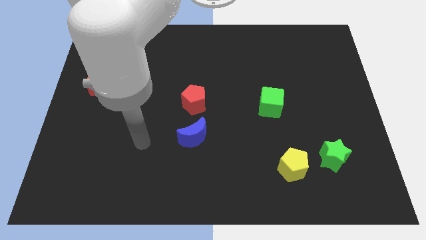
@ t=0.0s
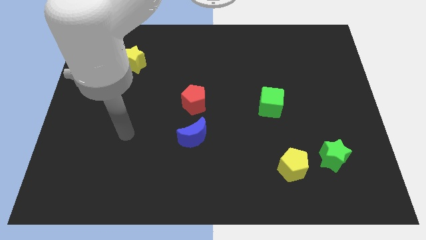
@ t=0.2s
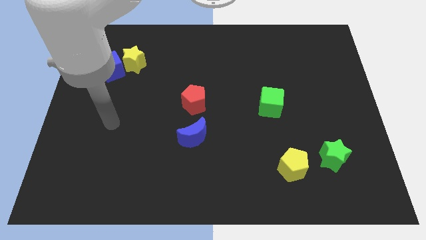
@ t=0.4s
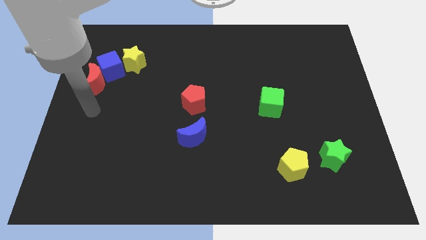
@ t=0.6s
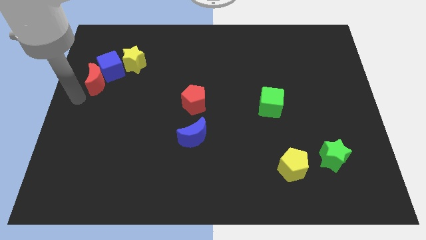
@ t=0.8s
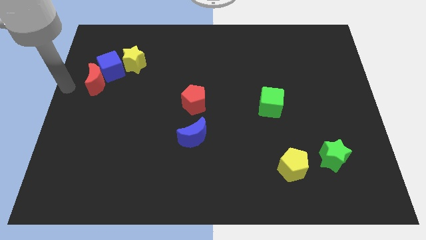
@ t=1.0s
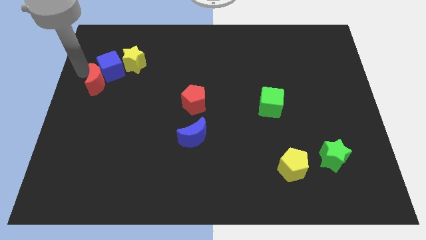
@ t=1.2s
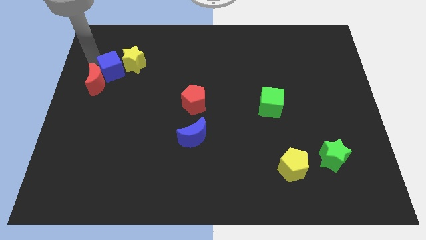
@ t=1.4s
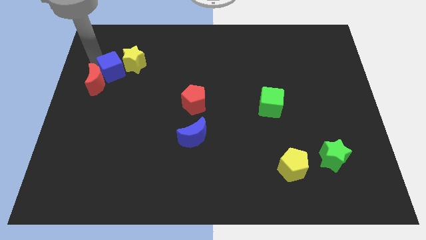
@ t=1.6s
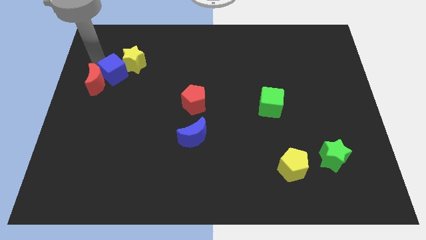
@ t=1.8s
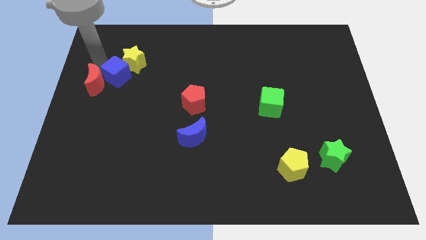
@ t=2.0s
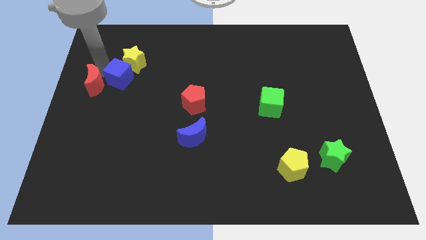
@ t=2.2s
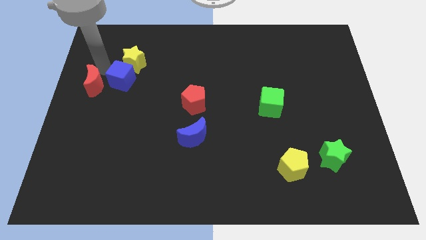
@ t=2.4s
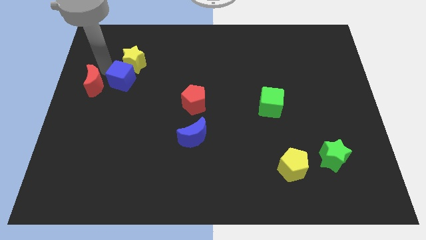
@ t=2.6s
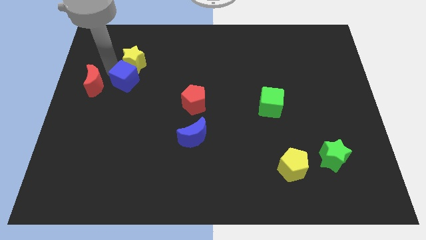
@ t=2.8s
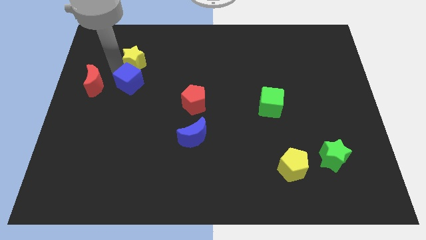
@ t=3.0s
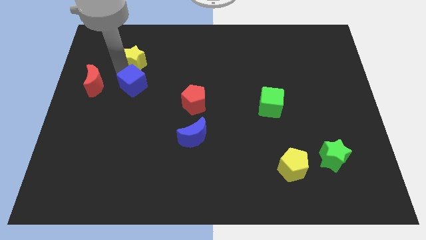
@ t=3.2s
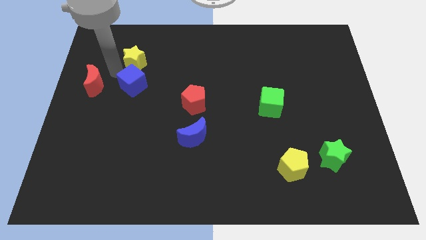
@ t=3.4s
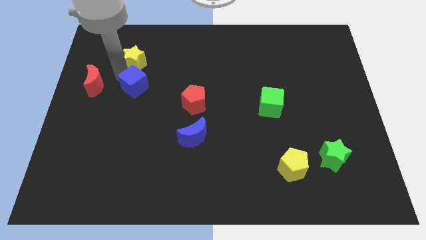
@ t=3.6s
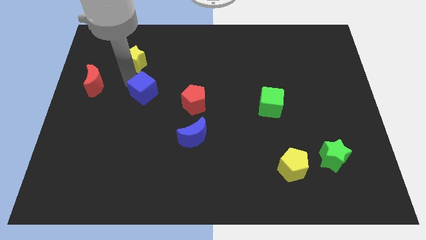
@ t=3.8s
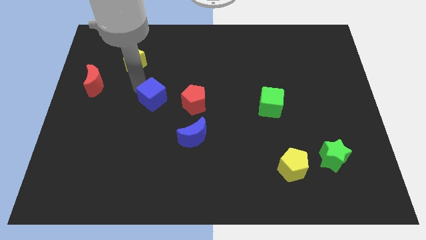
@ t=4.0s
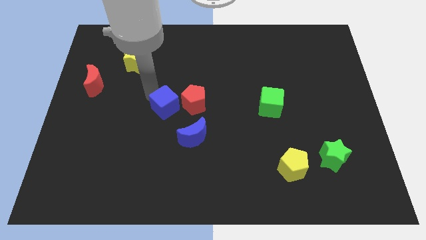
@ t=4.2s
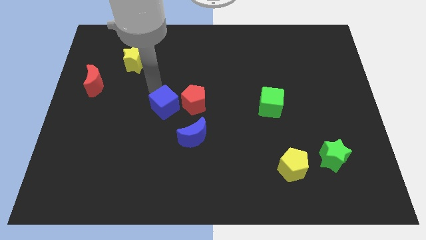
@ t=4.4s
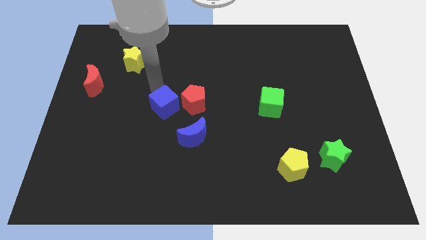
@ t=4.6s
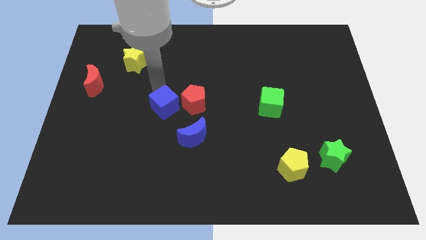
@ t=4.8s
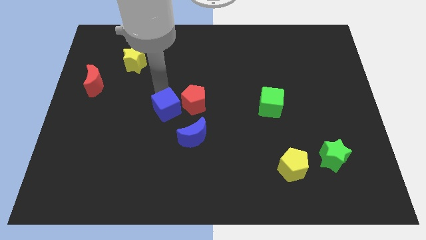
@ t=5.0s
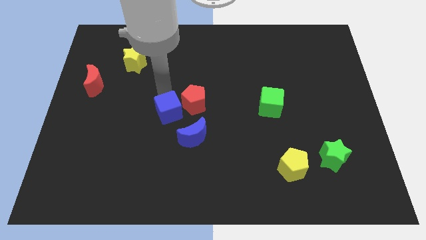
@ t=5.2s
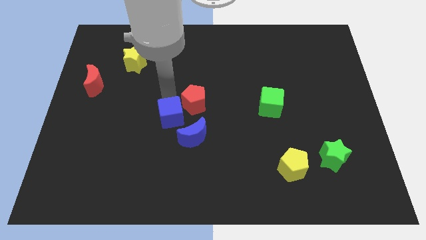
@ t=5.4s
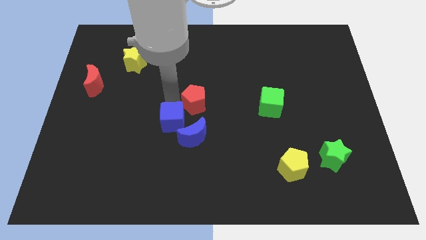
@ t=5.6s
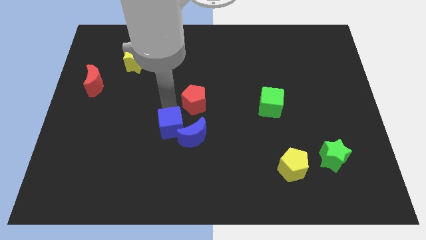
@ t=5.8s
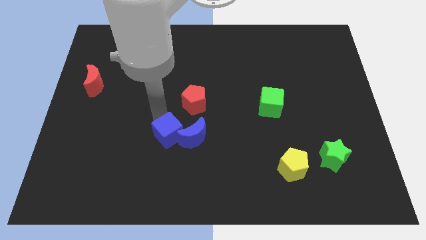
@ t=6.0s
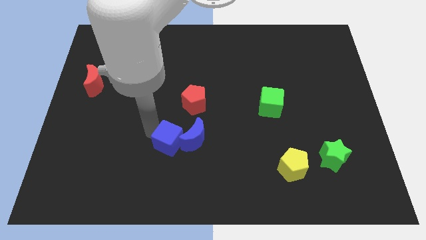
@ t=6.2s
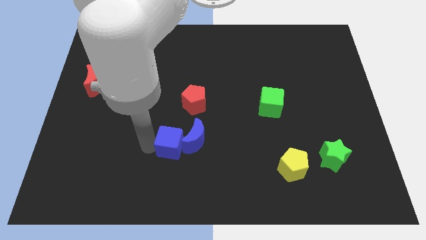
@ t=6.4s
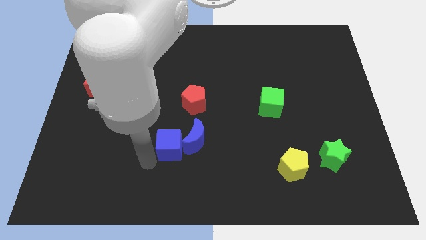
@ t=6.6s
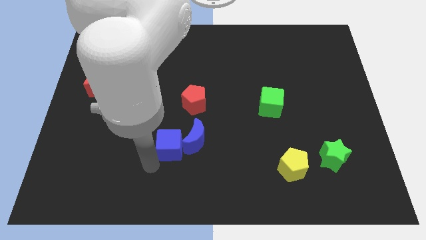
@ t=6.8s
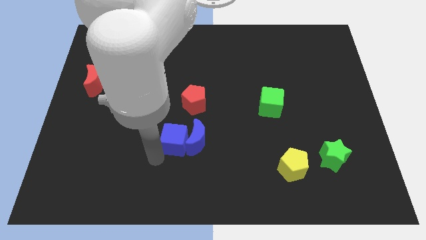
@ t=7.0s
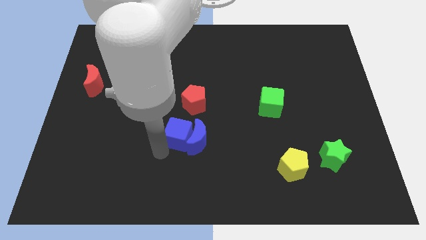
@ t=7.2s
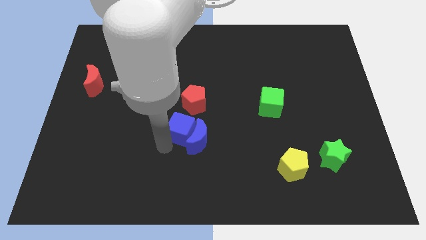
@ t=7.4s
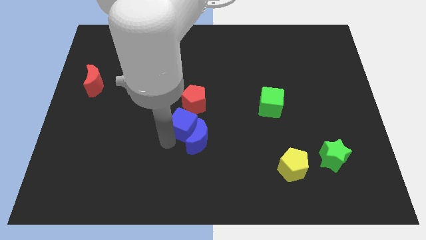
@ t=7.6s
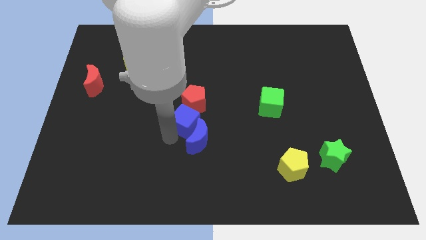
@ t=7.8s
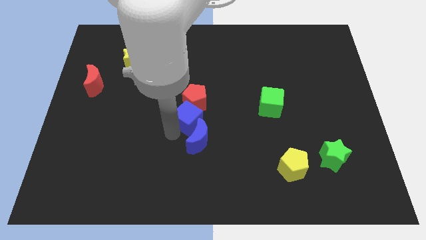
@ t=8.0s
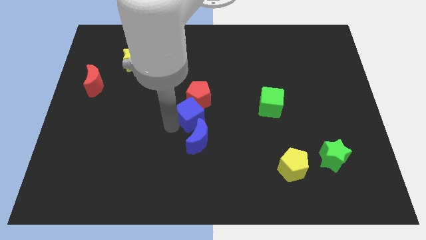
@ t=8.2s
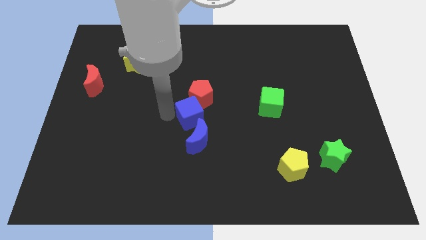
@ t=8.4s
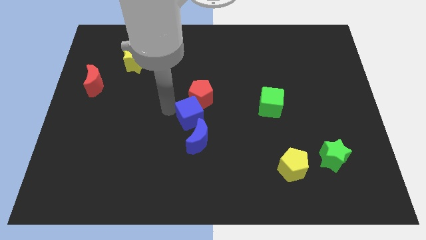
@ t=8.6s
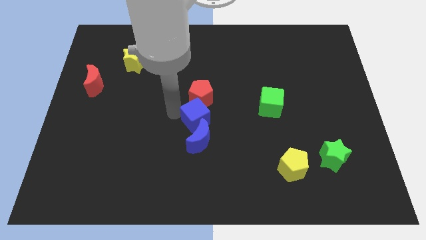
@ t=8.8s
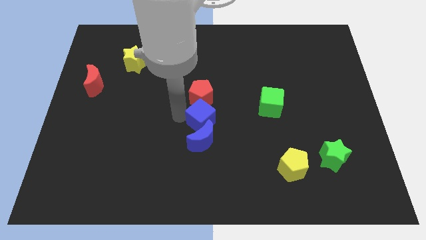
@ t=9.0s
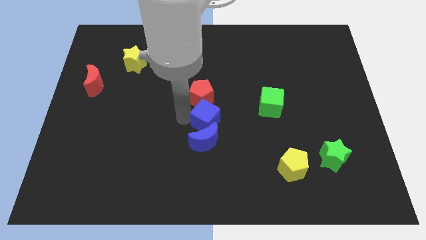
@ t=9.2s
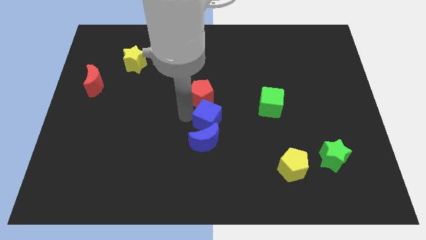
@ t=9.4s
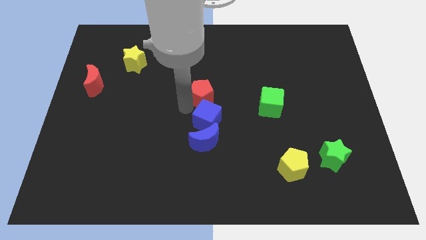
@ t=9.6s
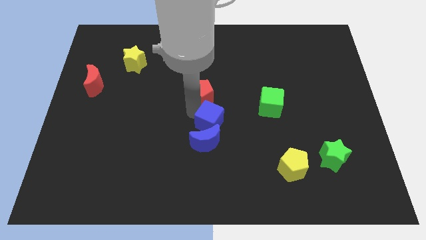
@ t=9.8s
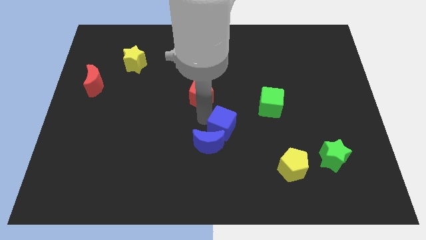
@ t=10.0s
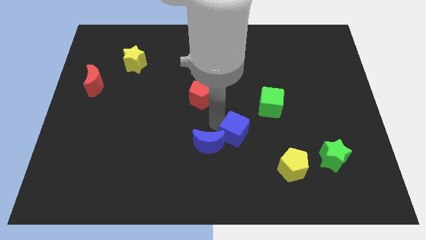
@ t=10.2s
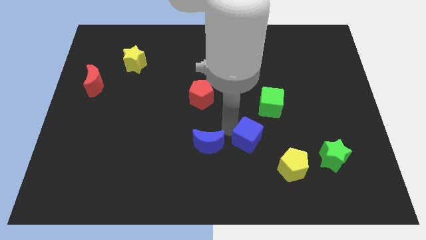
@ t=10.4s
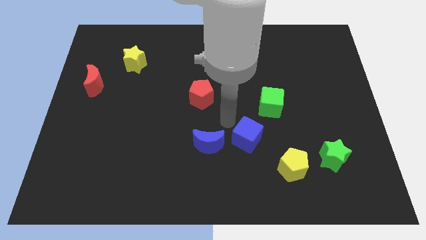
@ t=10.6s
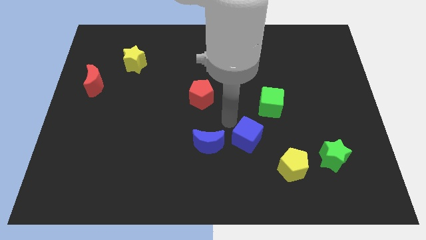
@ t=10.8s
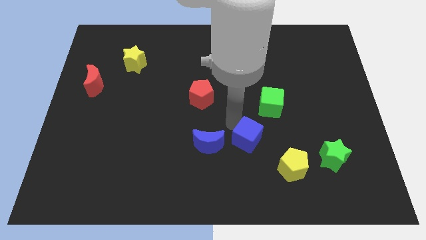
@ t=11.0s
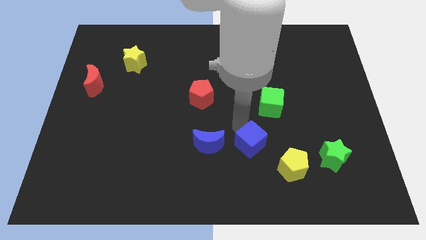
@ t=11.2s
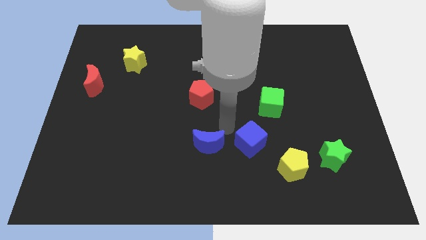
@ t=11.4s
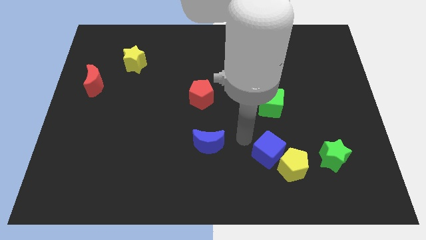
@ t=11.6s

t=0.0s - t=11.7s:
put the blue cube next to the yellow pentagon

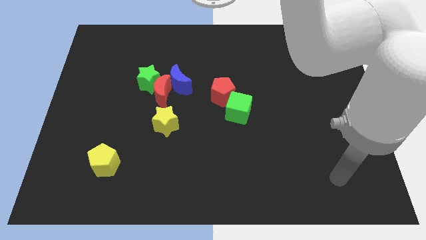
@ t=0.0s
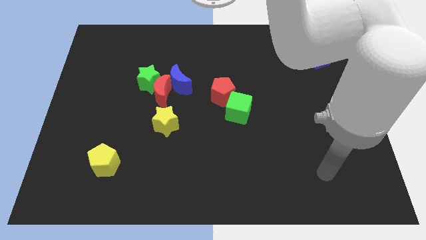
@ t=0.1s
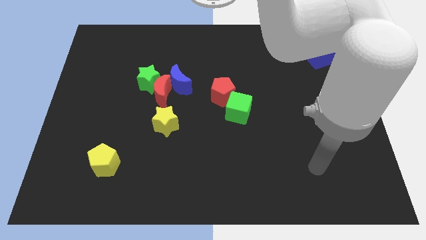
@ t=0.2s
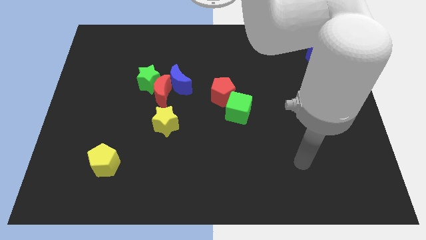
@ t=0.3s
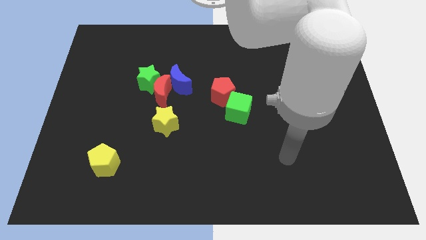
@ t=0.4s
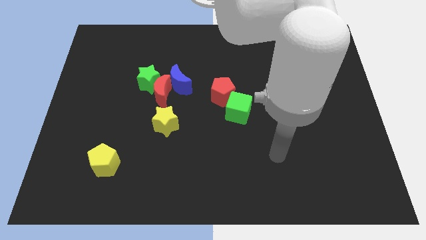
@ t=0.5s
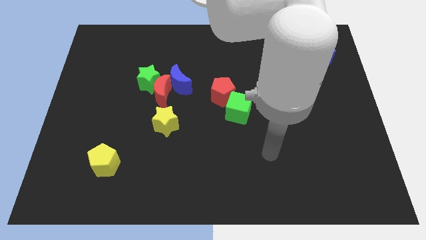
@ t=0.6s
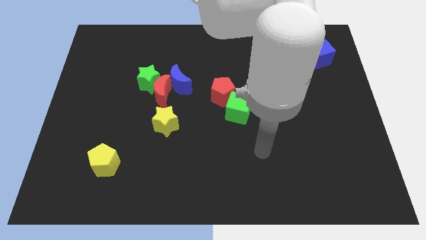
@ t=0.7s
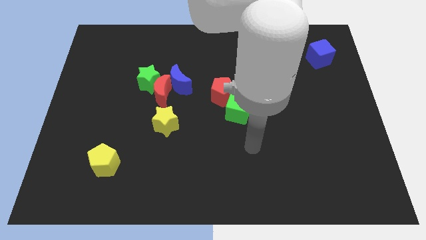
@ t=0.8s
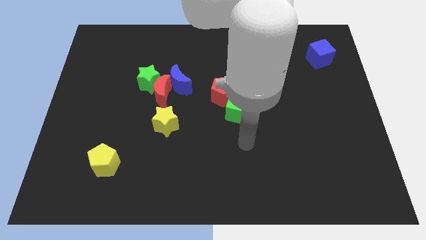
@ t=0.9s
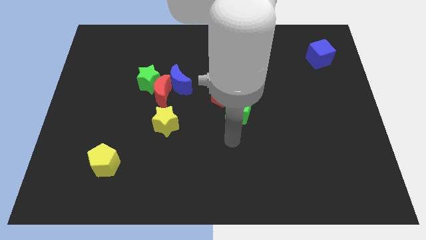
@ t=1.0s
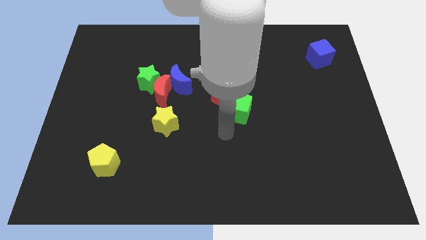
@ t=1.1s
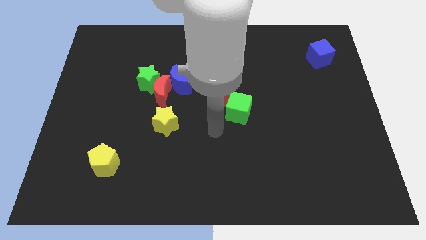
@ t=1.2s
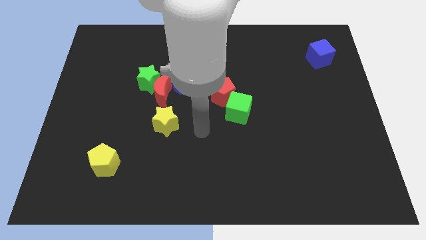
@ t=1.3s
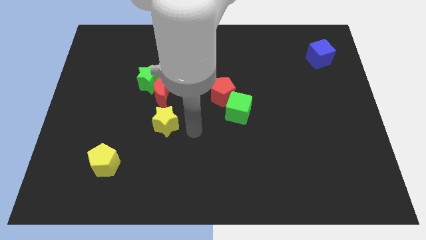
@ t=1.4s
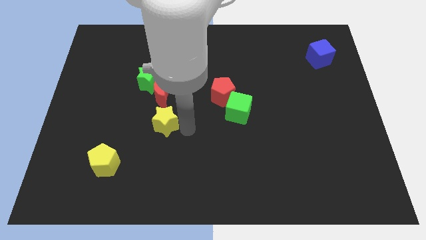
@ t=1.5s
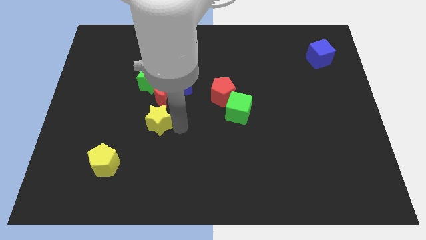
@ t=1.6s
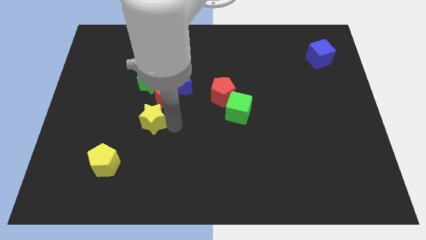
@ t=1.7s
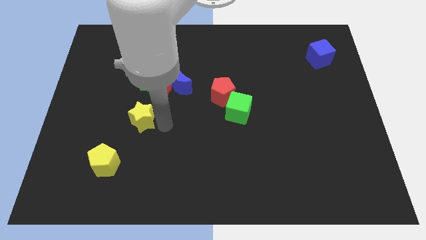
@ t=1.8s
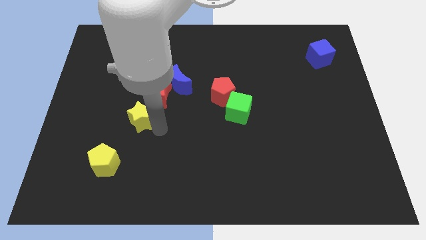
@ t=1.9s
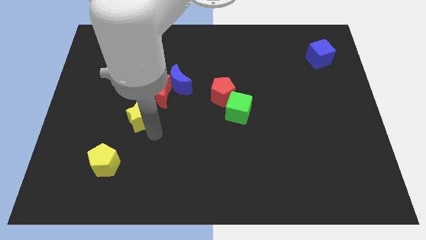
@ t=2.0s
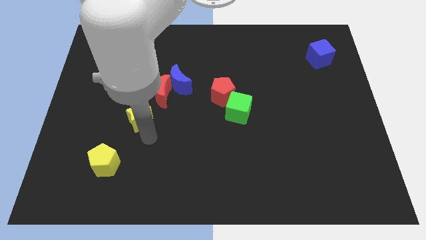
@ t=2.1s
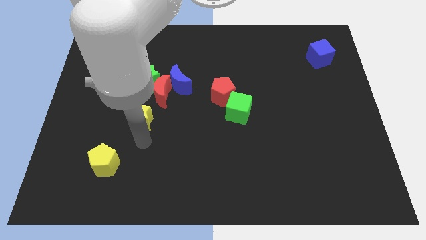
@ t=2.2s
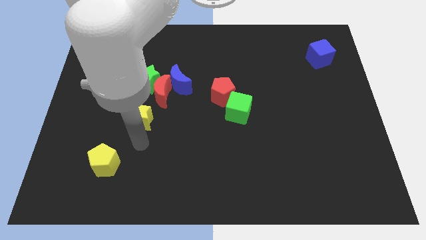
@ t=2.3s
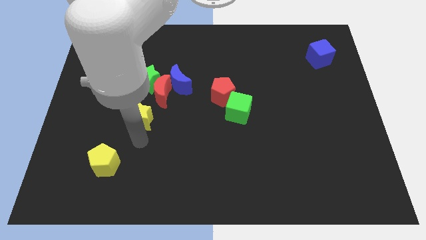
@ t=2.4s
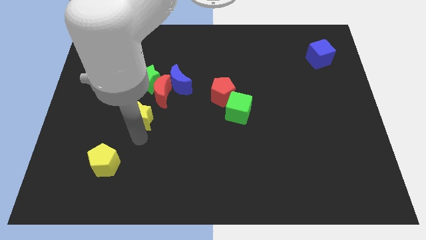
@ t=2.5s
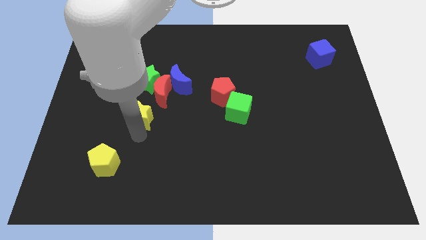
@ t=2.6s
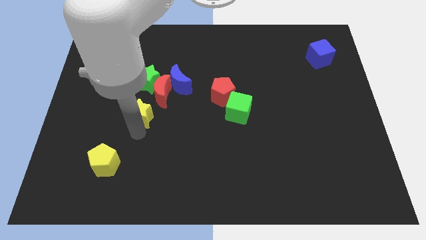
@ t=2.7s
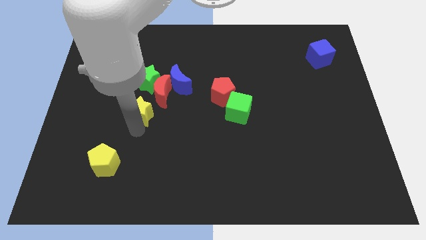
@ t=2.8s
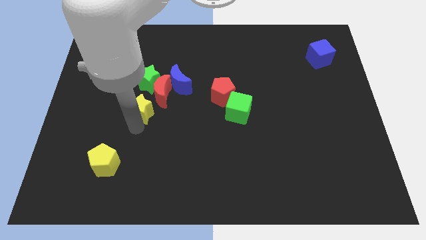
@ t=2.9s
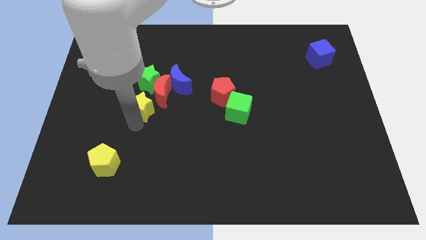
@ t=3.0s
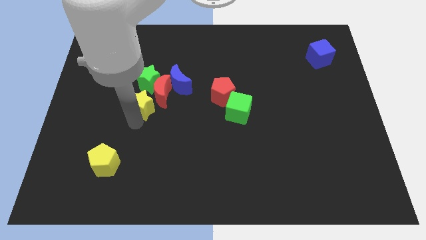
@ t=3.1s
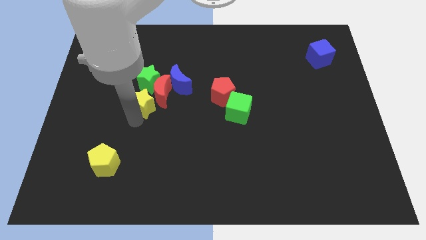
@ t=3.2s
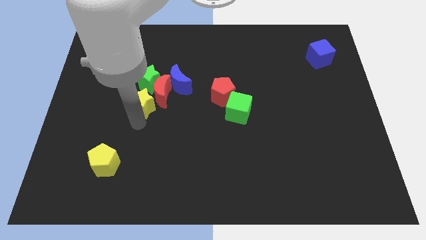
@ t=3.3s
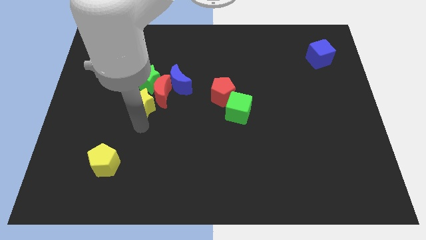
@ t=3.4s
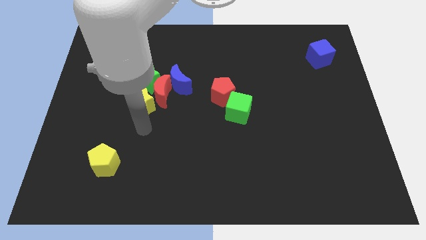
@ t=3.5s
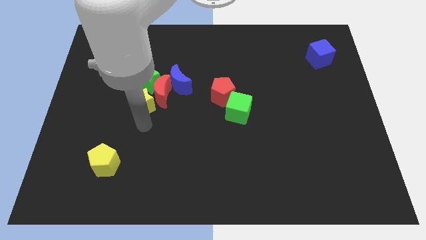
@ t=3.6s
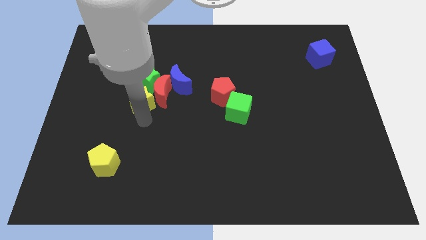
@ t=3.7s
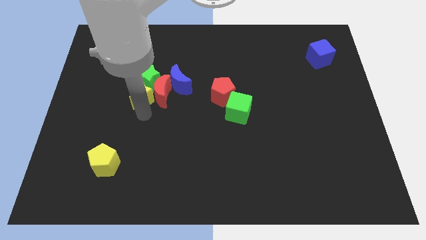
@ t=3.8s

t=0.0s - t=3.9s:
put the yellow star next to the green star
